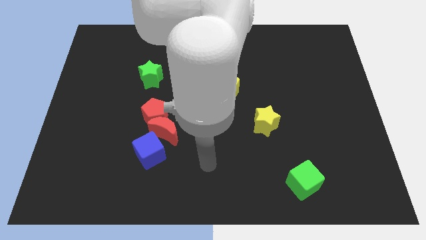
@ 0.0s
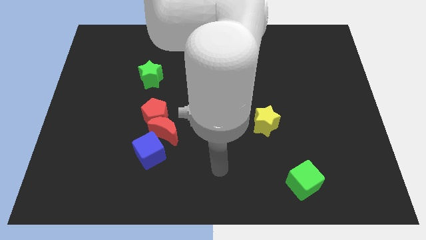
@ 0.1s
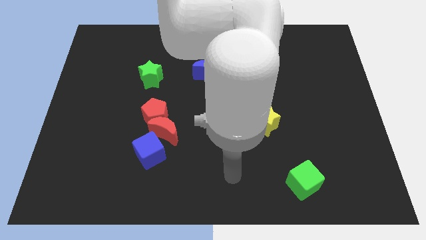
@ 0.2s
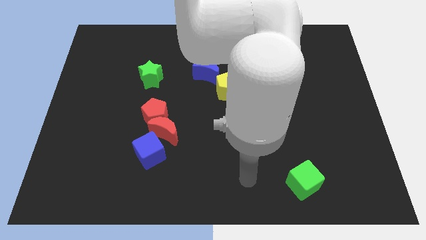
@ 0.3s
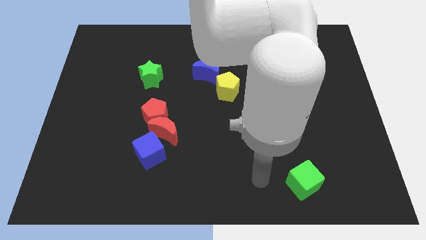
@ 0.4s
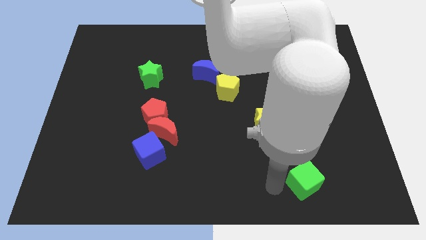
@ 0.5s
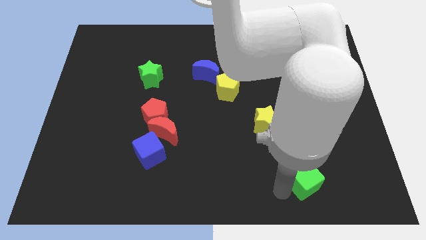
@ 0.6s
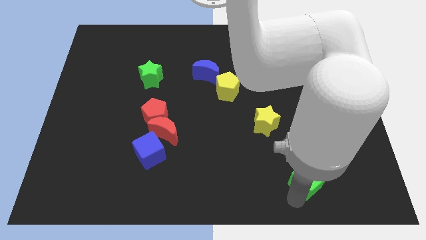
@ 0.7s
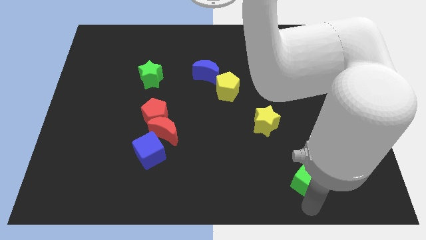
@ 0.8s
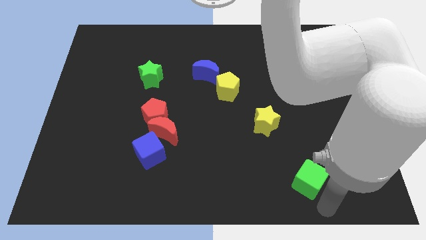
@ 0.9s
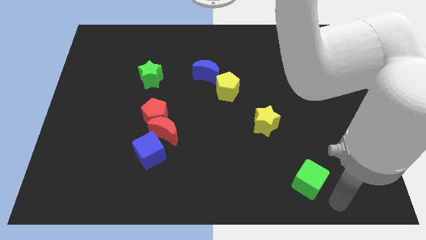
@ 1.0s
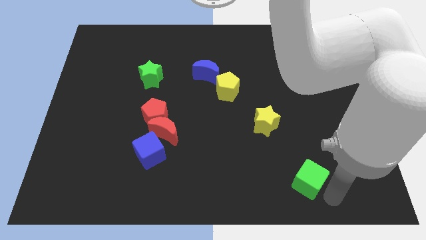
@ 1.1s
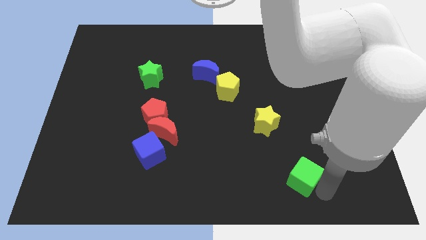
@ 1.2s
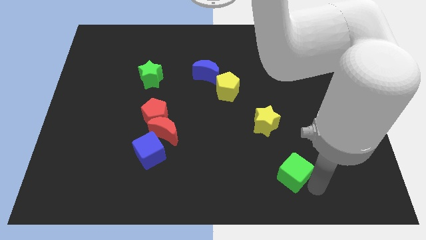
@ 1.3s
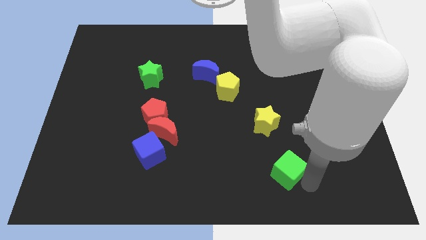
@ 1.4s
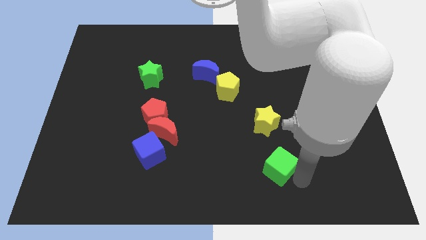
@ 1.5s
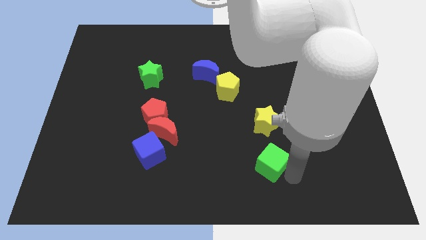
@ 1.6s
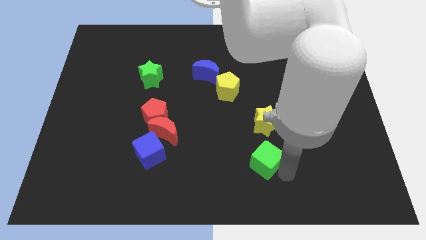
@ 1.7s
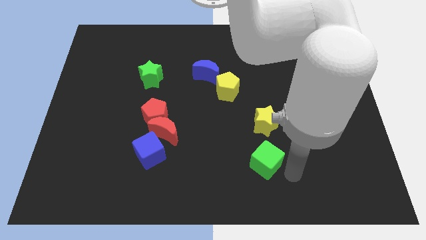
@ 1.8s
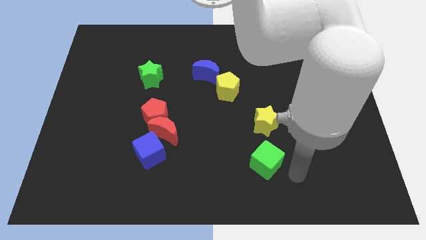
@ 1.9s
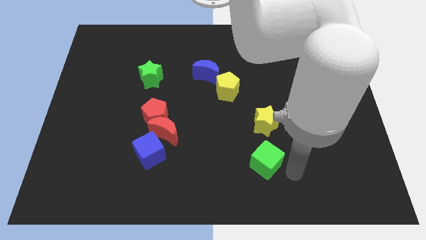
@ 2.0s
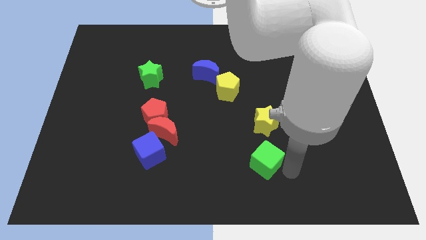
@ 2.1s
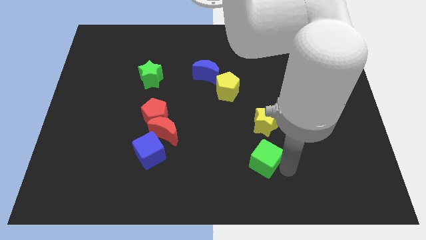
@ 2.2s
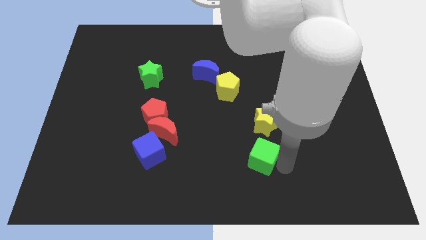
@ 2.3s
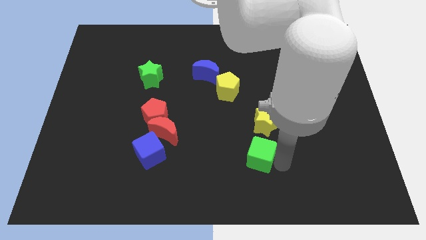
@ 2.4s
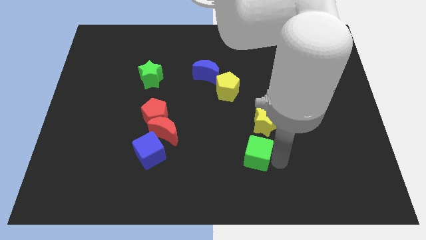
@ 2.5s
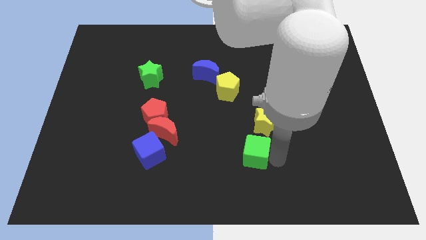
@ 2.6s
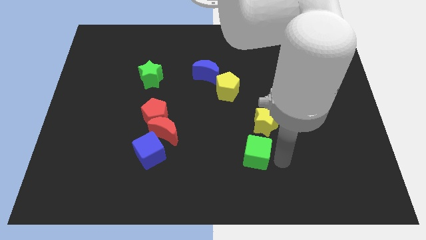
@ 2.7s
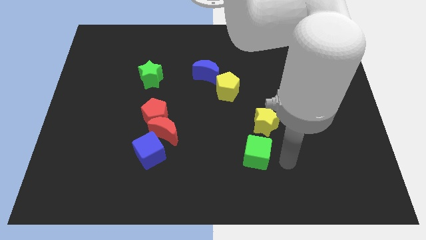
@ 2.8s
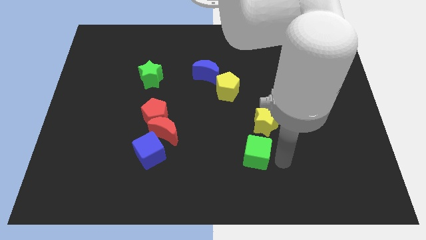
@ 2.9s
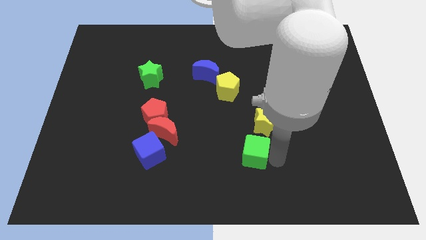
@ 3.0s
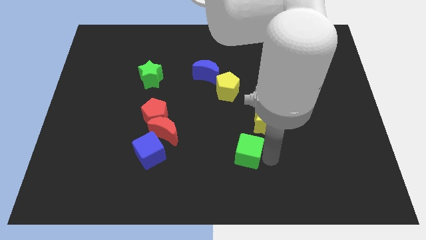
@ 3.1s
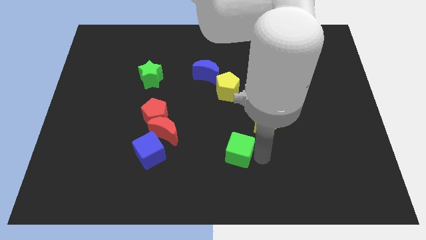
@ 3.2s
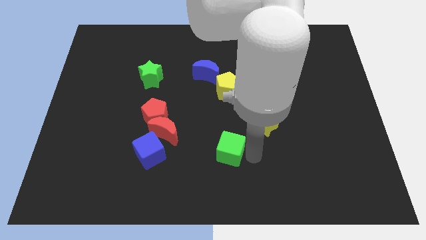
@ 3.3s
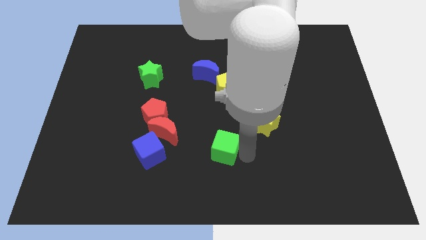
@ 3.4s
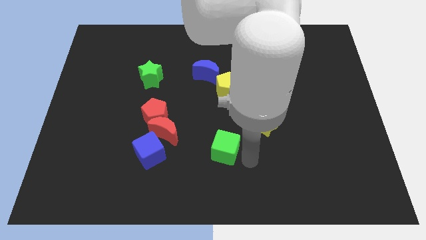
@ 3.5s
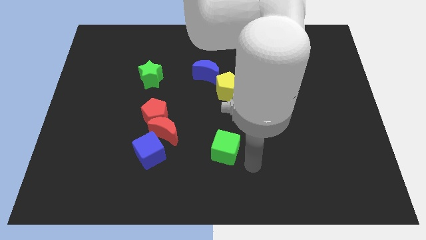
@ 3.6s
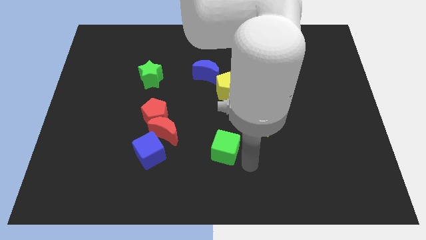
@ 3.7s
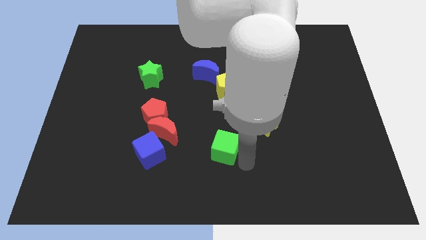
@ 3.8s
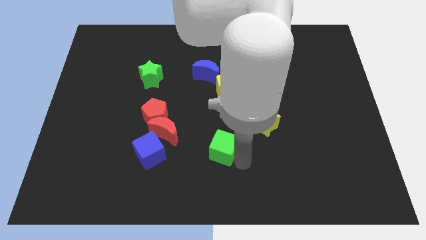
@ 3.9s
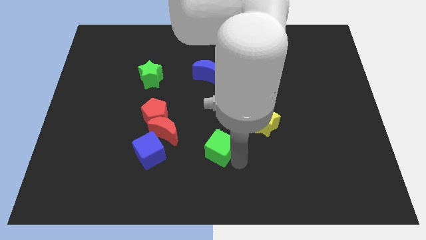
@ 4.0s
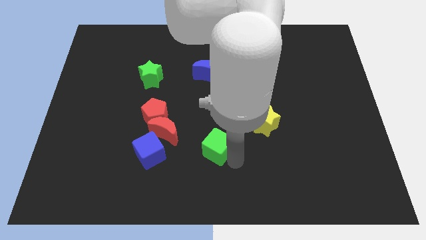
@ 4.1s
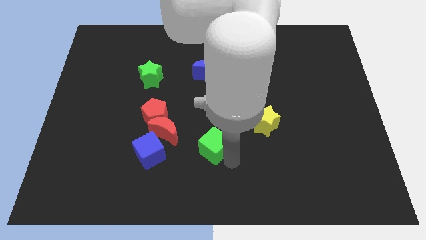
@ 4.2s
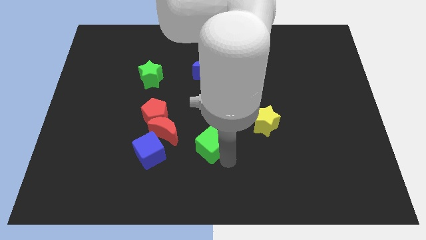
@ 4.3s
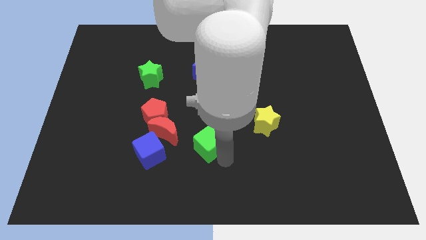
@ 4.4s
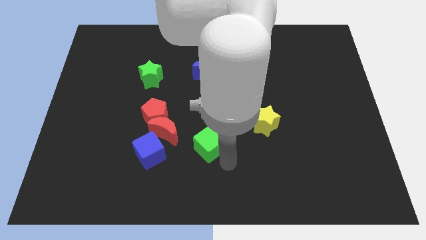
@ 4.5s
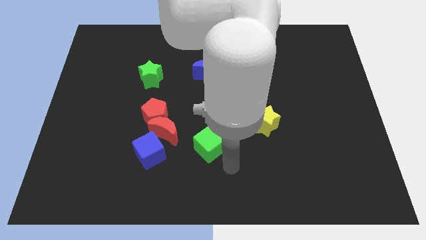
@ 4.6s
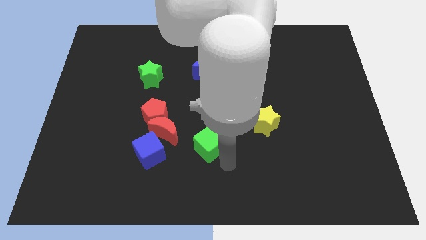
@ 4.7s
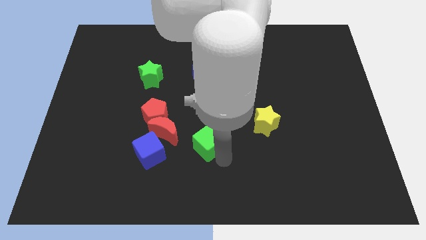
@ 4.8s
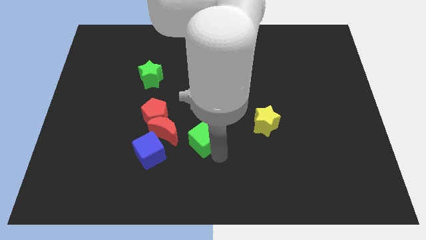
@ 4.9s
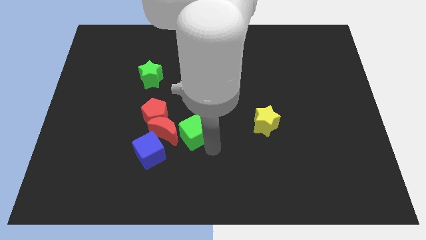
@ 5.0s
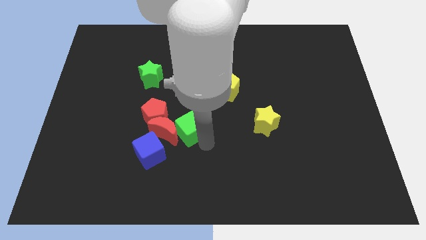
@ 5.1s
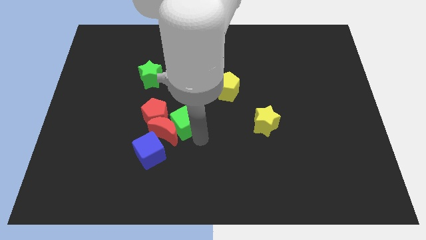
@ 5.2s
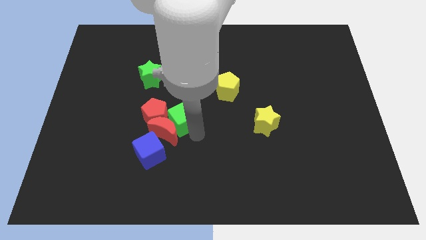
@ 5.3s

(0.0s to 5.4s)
put the green cube close to the red pentagon

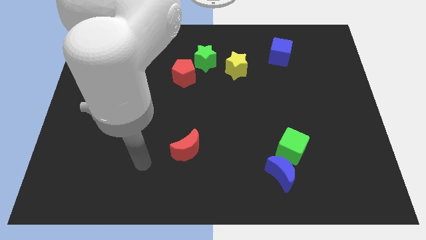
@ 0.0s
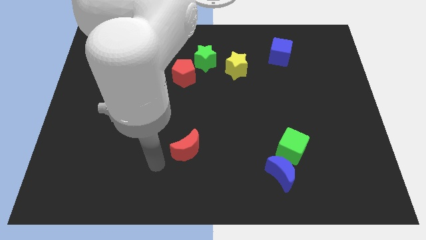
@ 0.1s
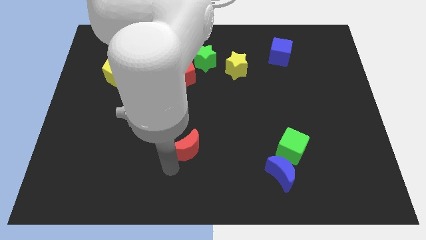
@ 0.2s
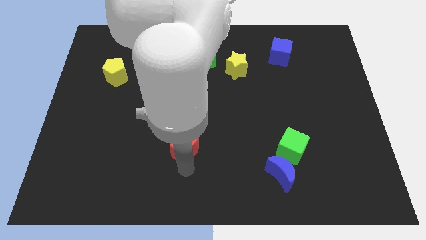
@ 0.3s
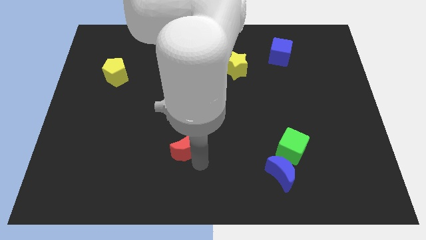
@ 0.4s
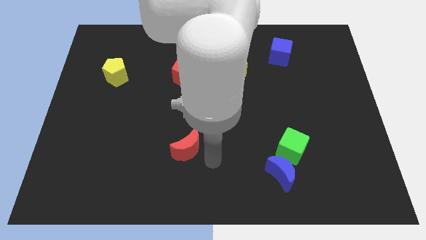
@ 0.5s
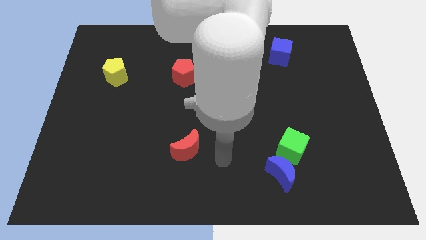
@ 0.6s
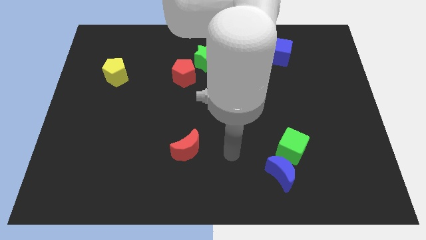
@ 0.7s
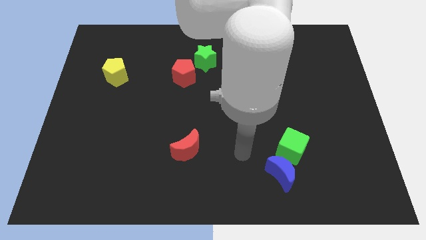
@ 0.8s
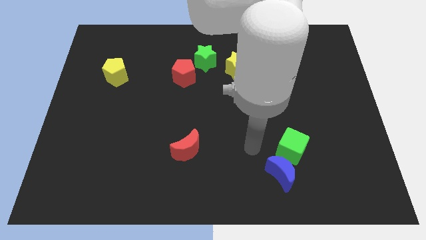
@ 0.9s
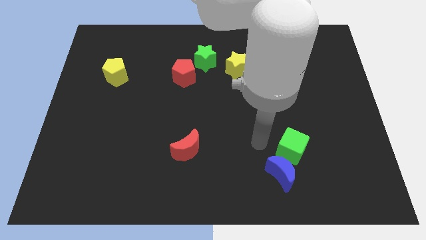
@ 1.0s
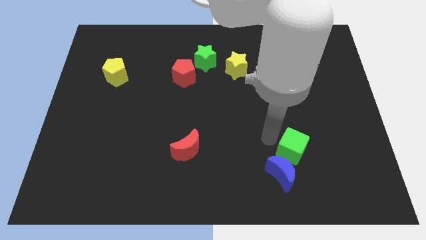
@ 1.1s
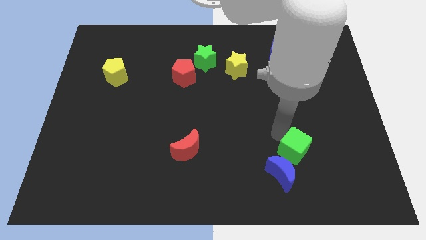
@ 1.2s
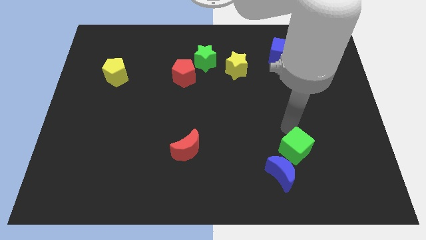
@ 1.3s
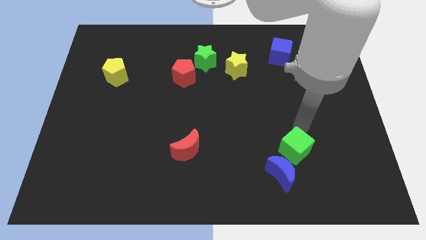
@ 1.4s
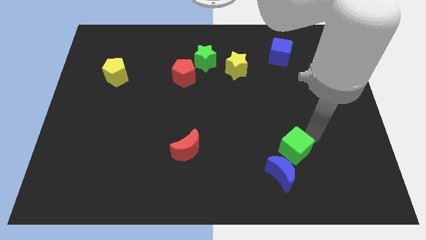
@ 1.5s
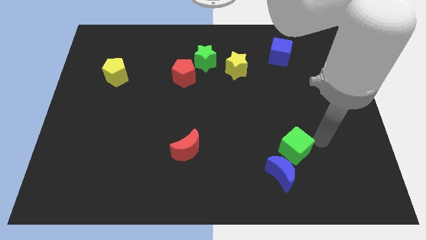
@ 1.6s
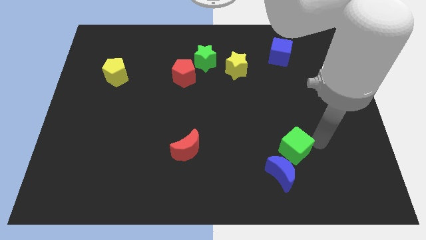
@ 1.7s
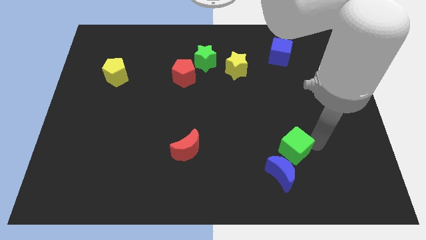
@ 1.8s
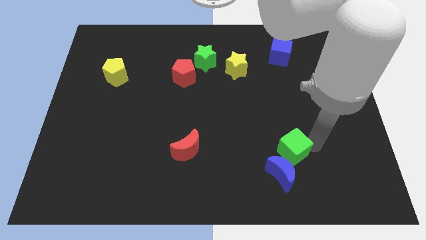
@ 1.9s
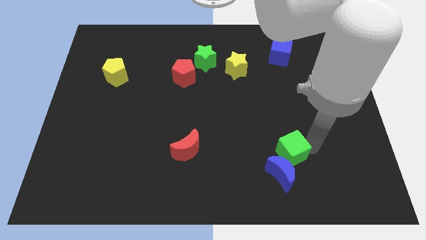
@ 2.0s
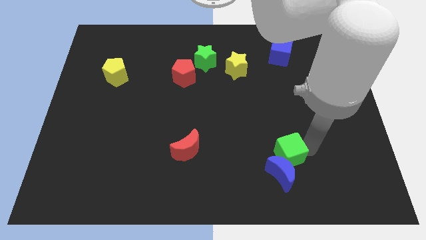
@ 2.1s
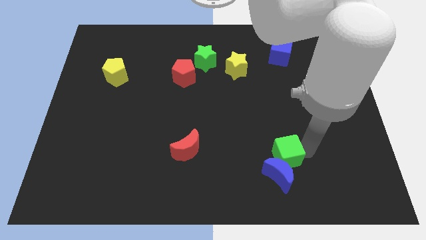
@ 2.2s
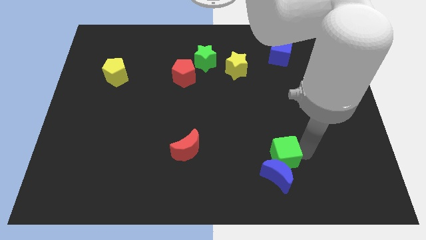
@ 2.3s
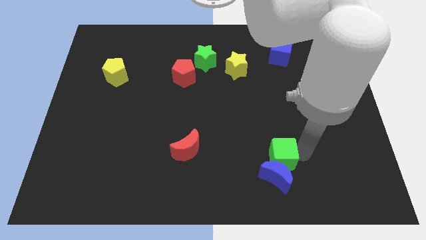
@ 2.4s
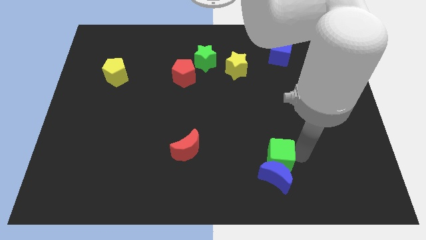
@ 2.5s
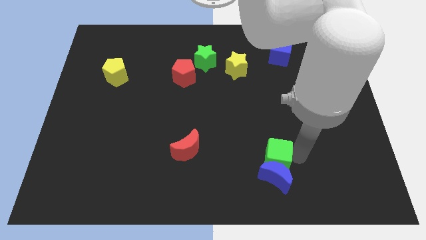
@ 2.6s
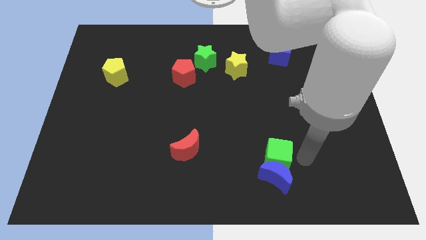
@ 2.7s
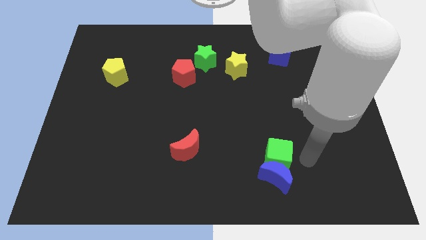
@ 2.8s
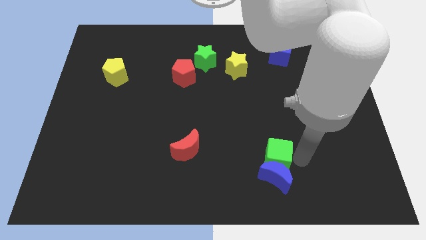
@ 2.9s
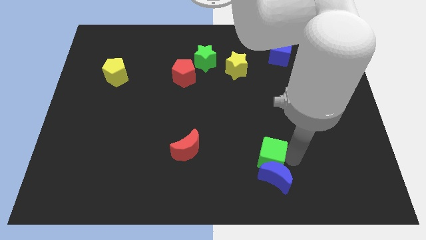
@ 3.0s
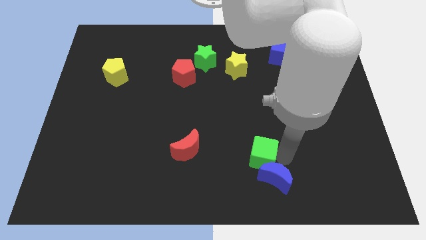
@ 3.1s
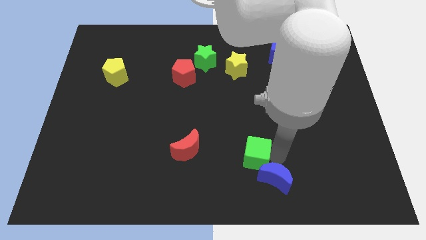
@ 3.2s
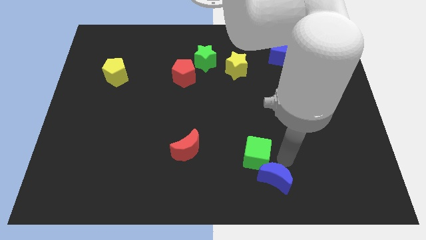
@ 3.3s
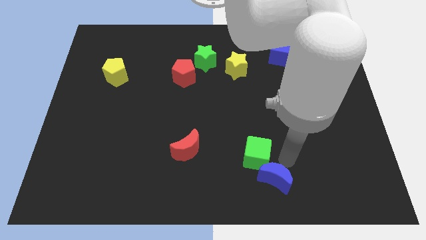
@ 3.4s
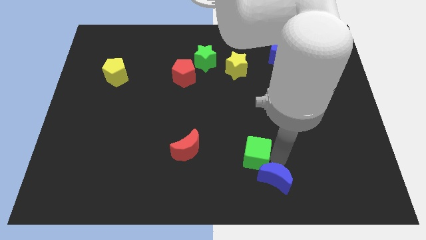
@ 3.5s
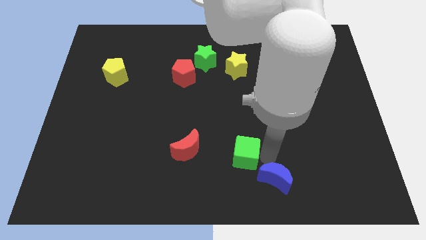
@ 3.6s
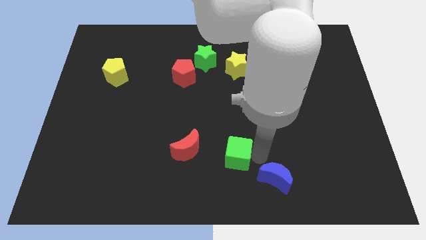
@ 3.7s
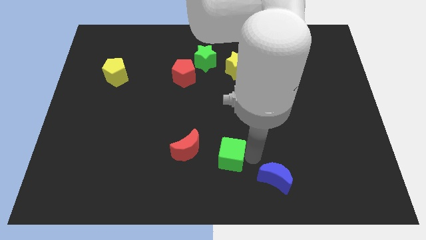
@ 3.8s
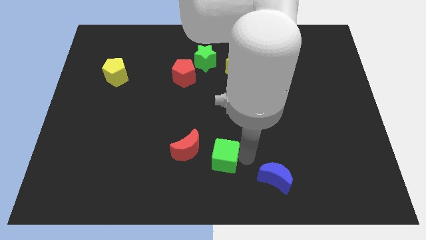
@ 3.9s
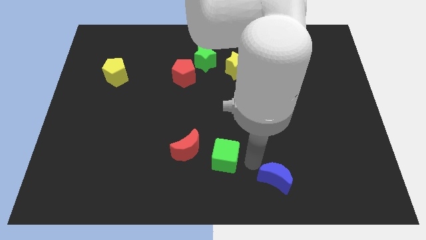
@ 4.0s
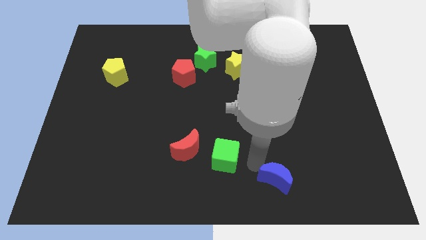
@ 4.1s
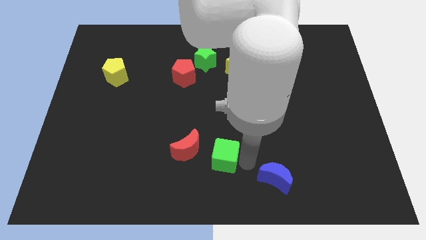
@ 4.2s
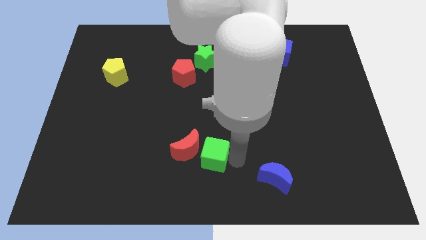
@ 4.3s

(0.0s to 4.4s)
push the green cube to the red moon
